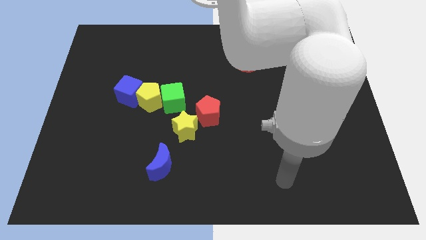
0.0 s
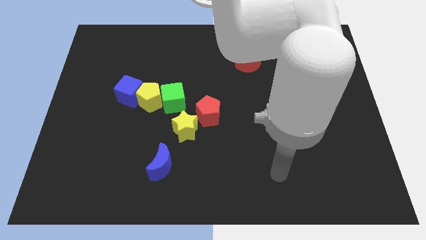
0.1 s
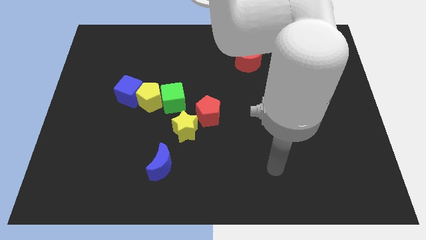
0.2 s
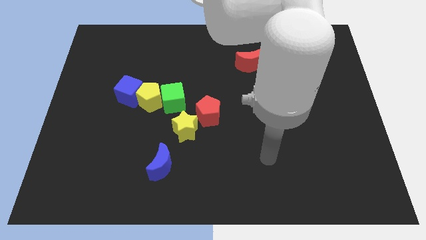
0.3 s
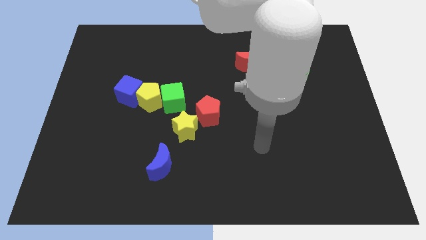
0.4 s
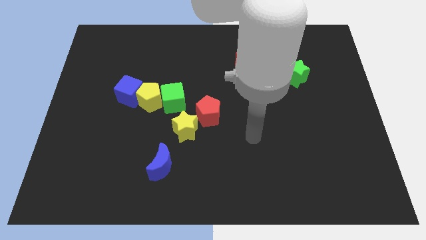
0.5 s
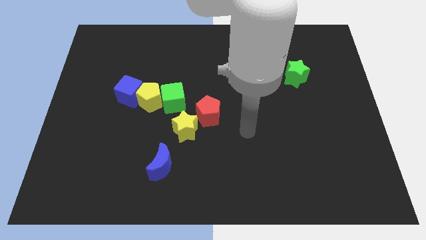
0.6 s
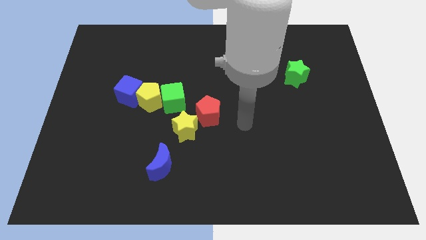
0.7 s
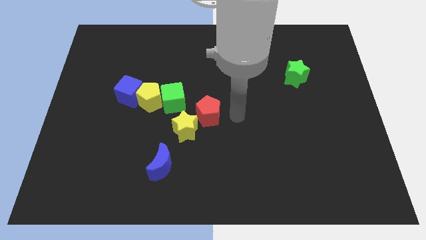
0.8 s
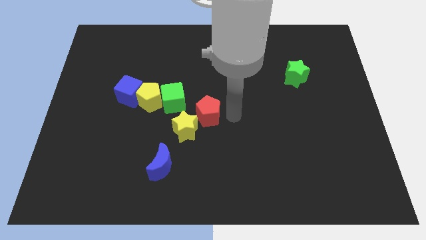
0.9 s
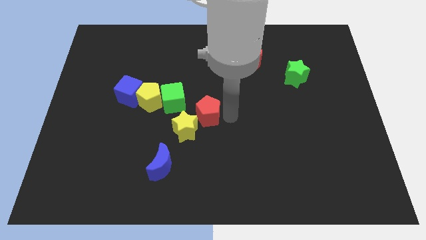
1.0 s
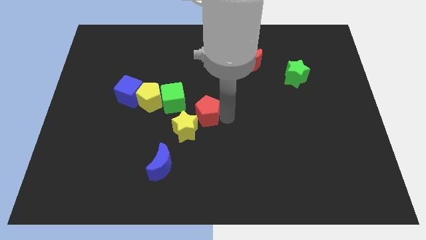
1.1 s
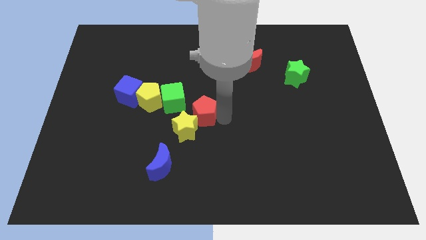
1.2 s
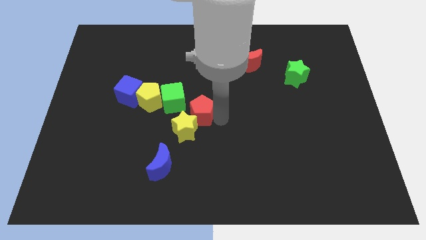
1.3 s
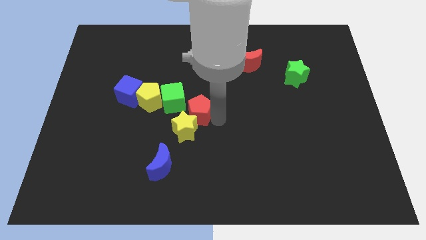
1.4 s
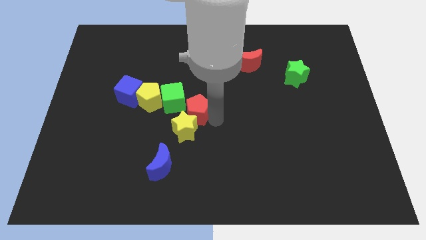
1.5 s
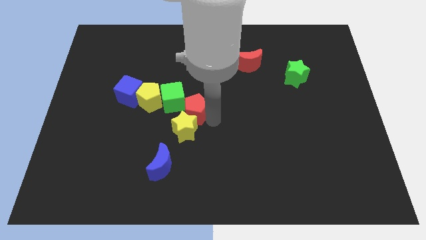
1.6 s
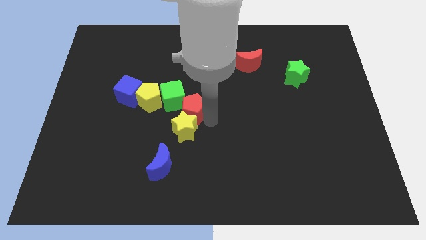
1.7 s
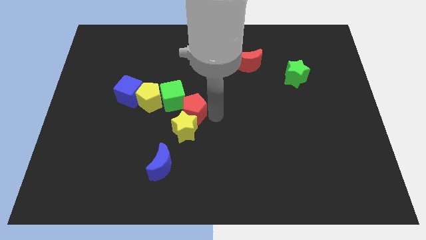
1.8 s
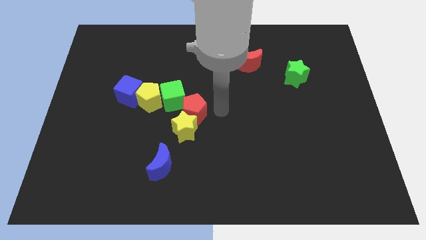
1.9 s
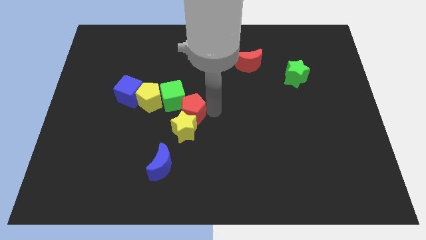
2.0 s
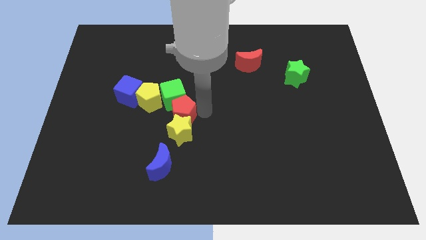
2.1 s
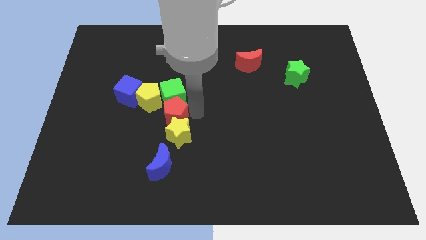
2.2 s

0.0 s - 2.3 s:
slide the red pentagon left a bit

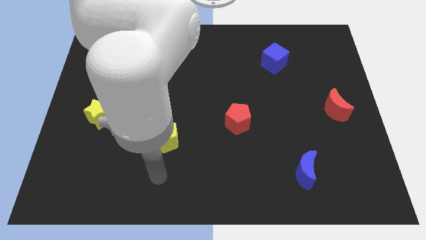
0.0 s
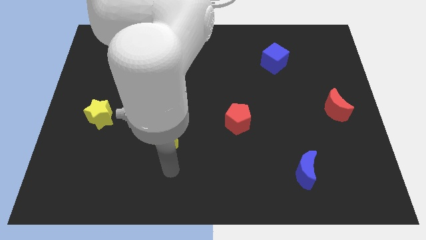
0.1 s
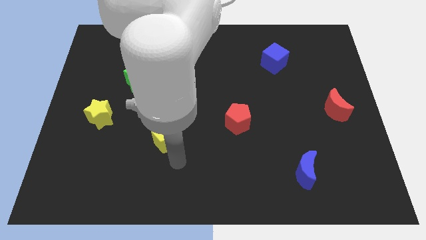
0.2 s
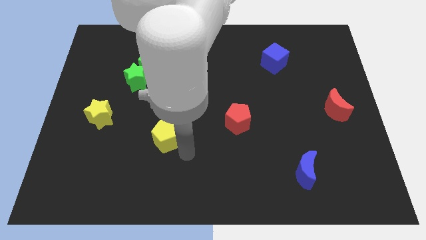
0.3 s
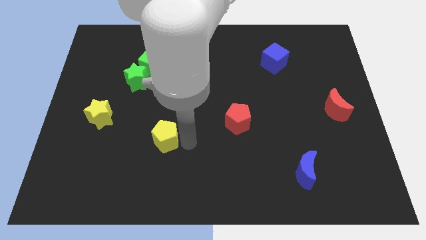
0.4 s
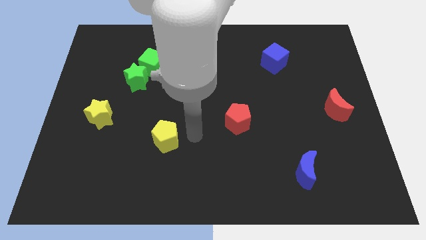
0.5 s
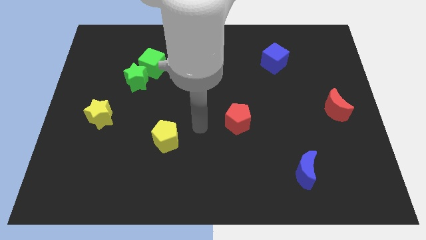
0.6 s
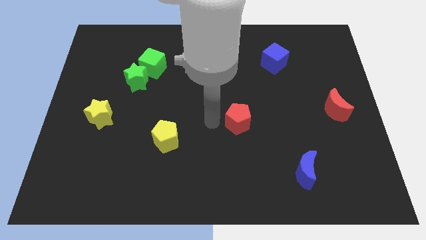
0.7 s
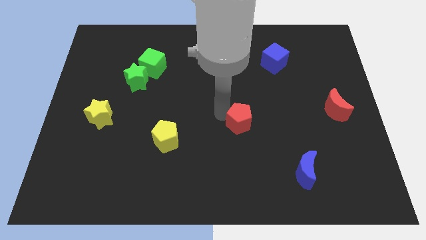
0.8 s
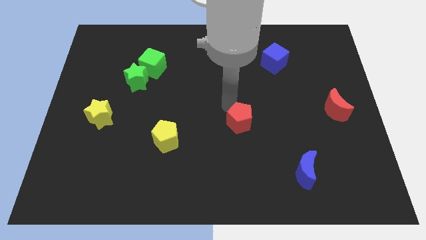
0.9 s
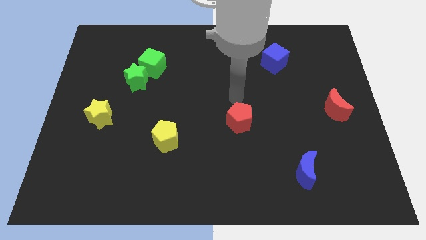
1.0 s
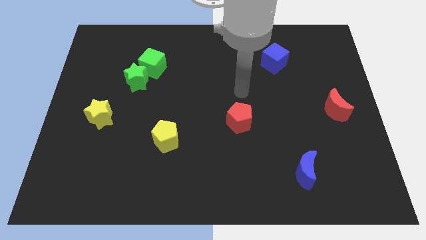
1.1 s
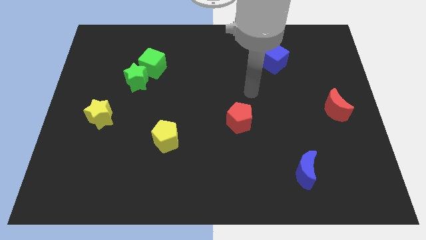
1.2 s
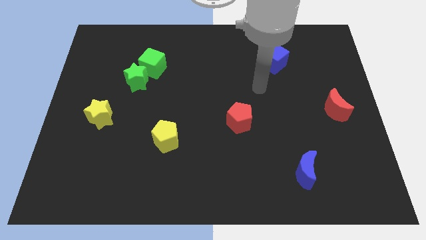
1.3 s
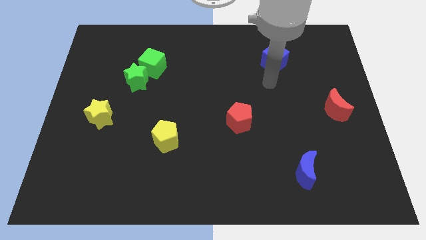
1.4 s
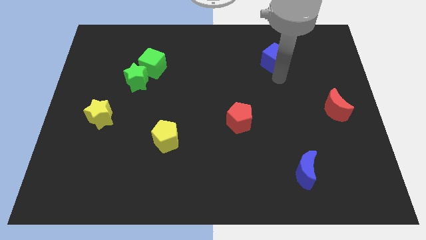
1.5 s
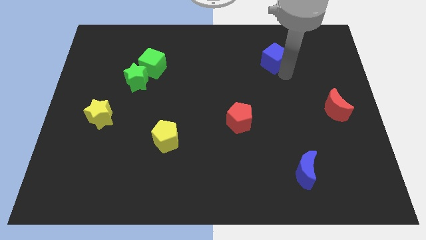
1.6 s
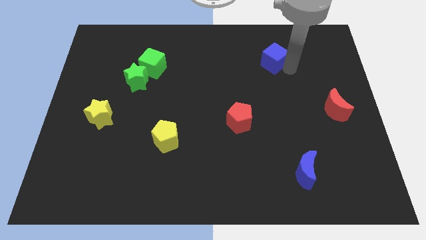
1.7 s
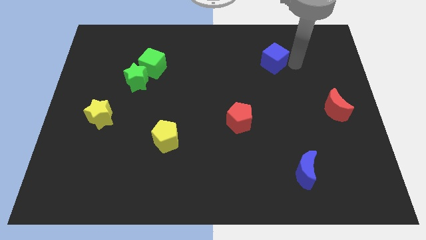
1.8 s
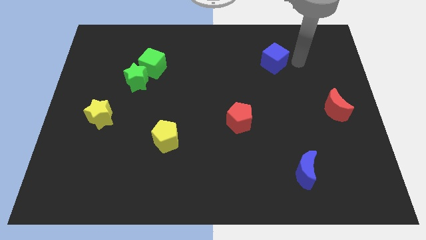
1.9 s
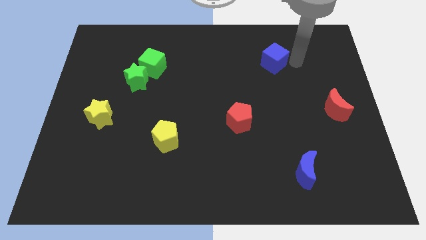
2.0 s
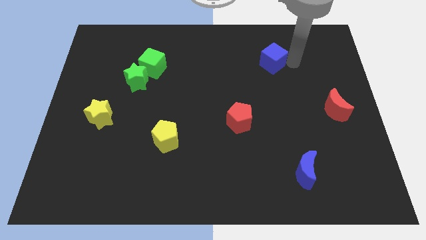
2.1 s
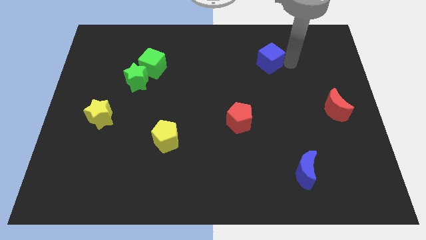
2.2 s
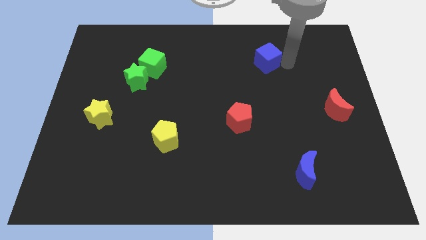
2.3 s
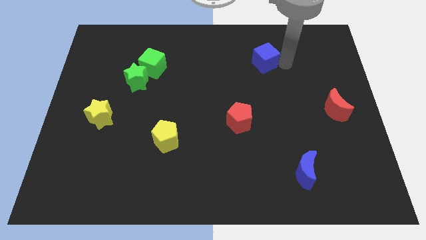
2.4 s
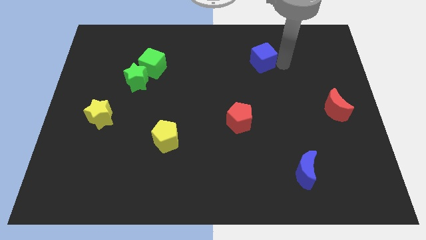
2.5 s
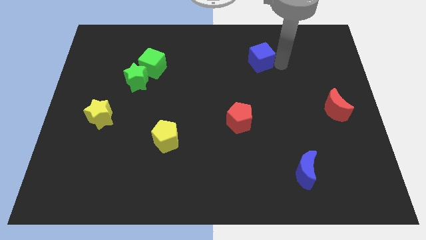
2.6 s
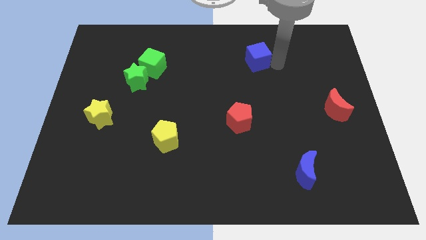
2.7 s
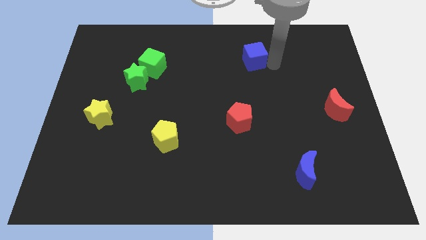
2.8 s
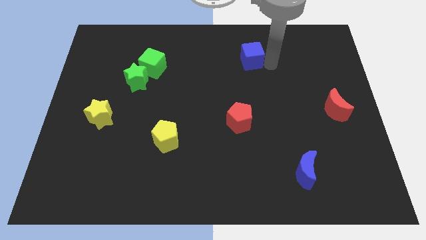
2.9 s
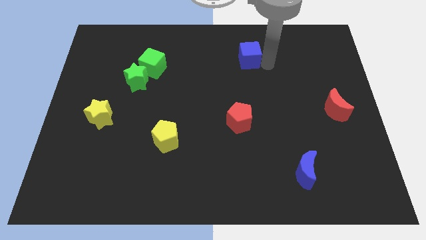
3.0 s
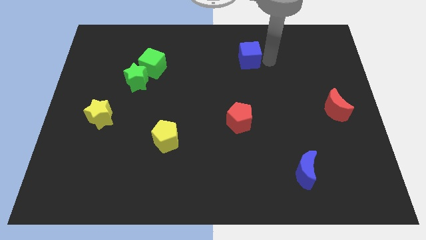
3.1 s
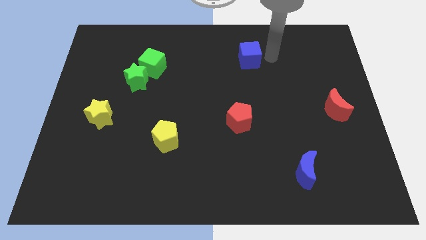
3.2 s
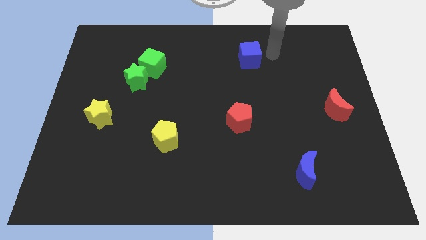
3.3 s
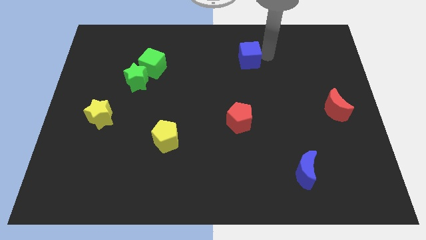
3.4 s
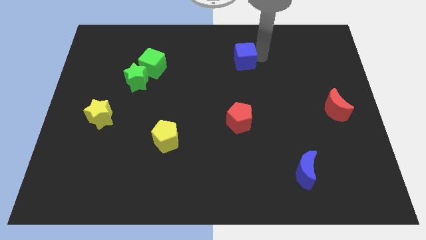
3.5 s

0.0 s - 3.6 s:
push the blue cube a little left

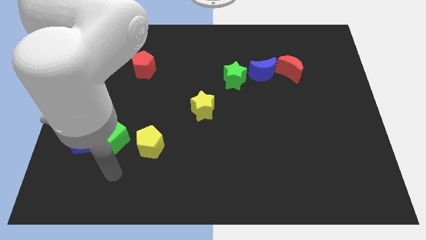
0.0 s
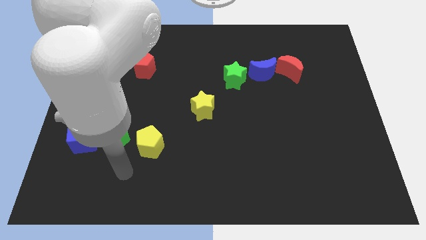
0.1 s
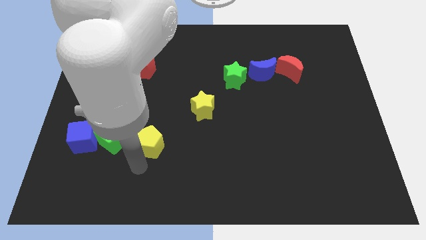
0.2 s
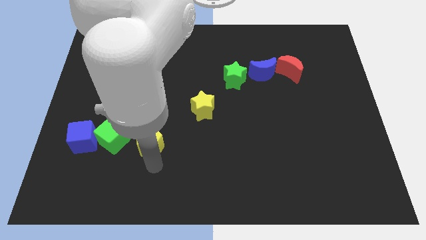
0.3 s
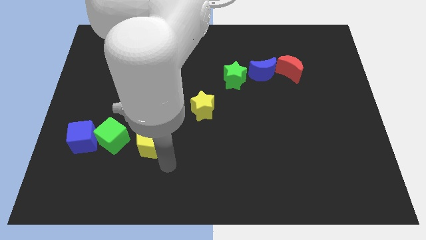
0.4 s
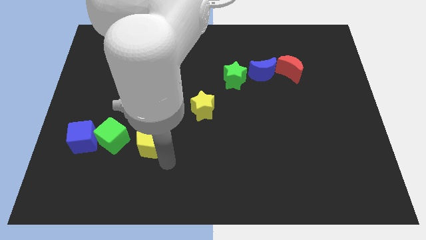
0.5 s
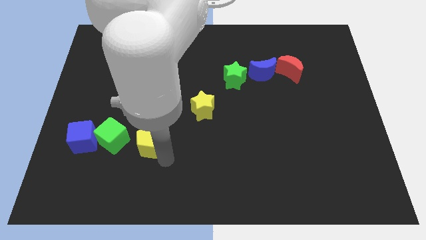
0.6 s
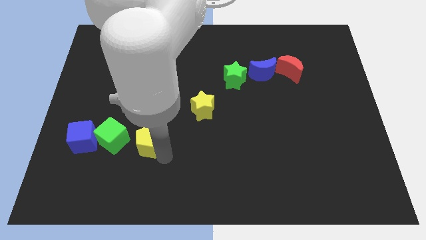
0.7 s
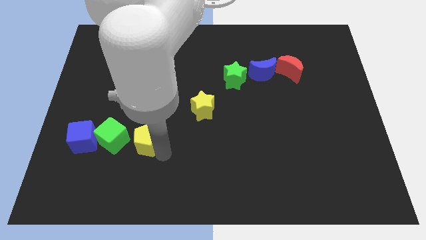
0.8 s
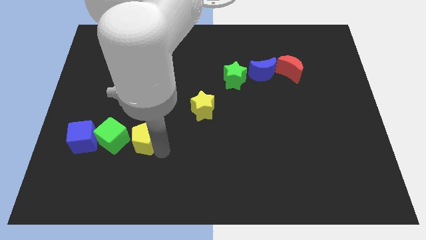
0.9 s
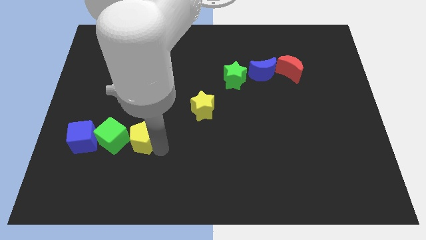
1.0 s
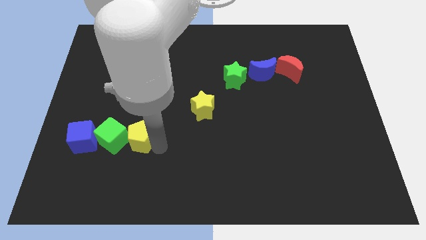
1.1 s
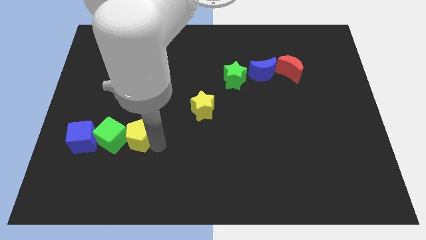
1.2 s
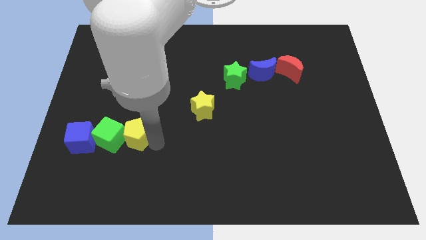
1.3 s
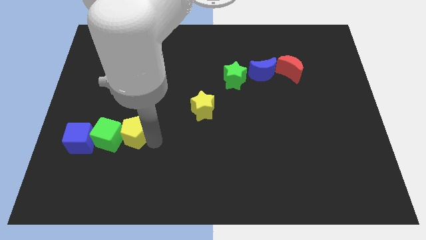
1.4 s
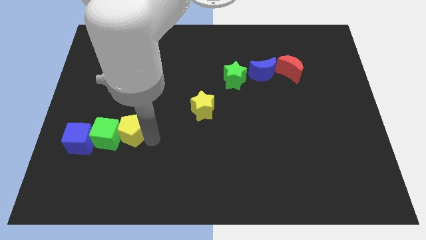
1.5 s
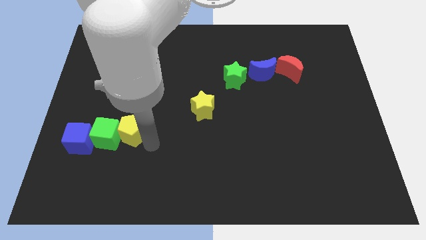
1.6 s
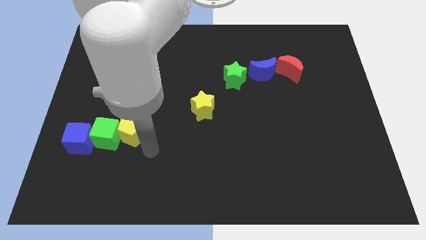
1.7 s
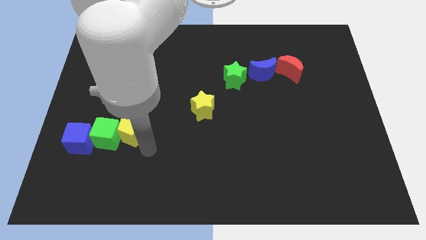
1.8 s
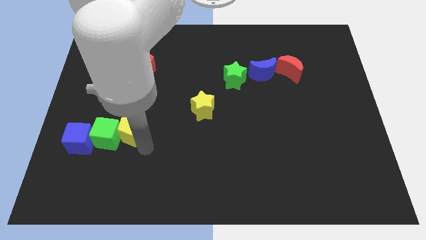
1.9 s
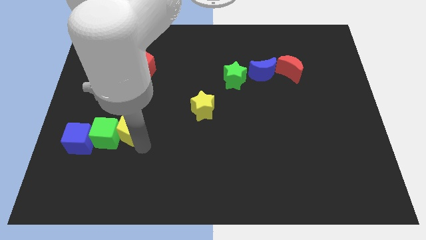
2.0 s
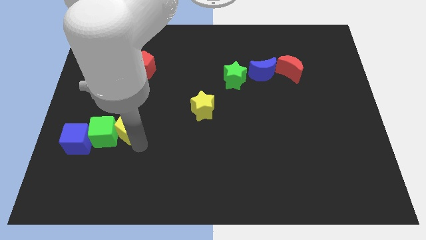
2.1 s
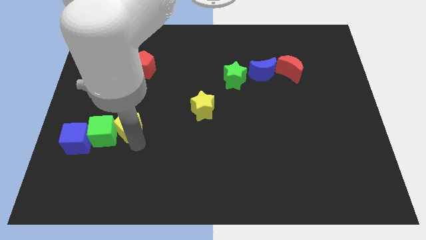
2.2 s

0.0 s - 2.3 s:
move the yellow pentagon a little diagonally upwards and left

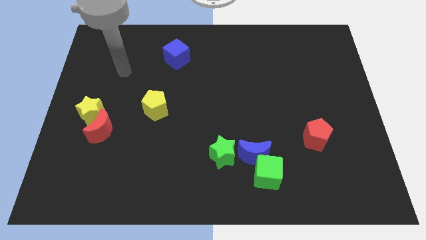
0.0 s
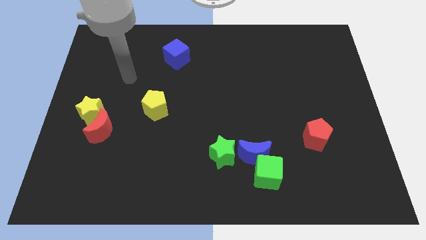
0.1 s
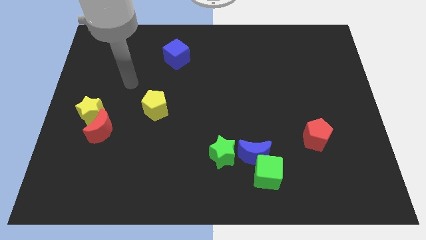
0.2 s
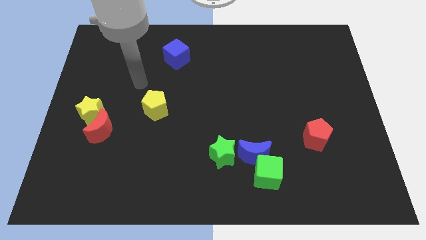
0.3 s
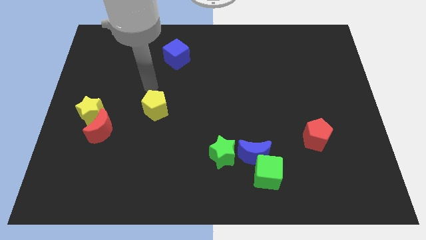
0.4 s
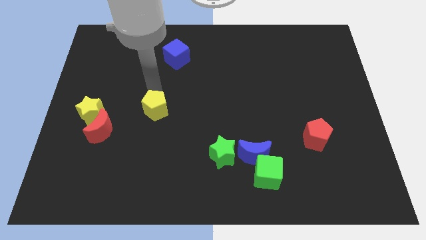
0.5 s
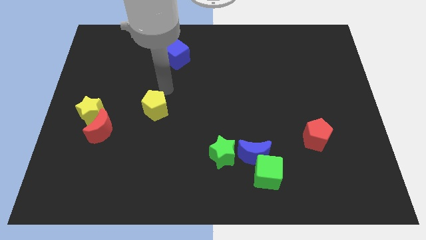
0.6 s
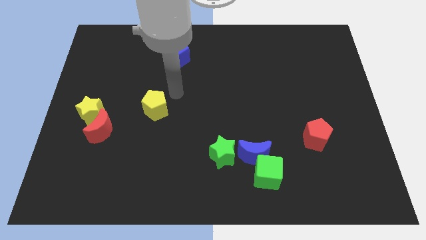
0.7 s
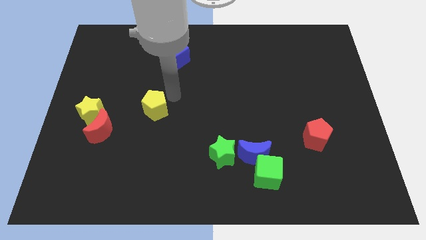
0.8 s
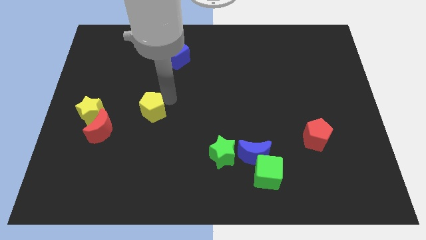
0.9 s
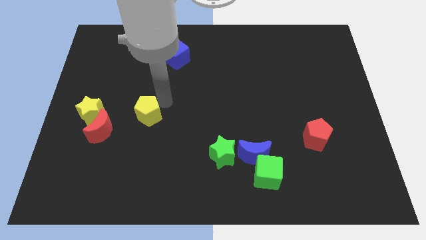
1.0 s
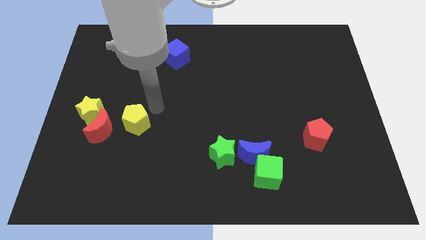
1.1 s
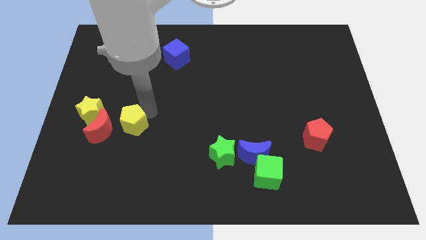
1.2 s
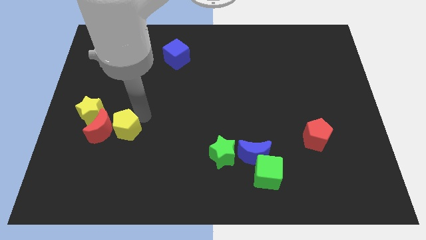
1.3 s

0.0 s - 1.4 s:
slightly push the yellow pentagon down and then left
